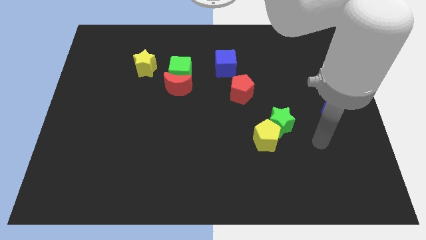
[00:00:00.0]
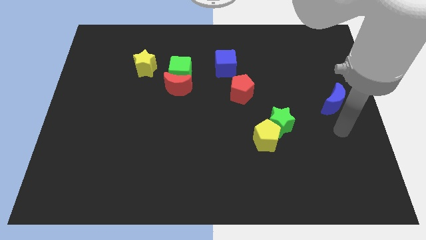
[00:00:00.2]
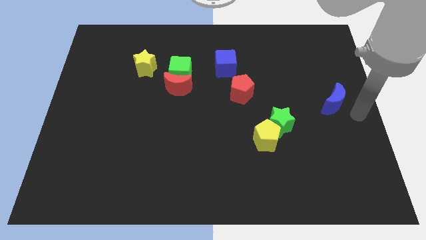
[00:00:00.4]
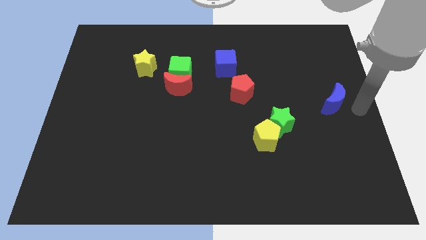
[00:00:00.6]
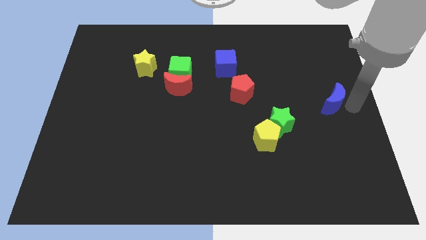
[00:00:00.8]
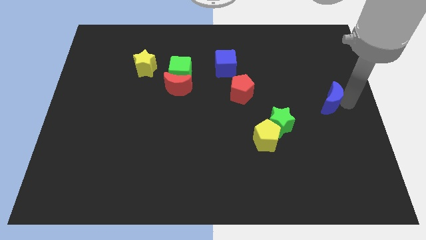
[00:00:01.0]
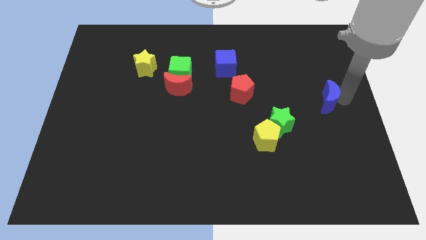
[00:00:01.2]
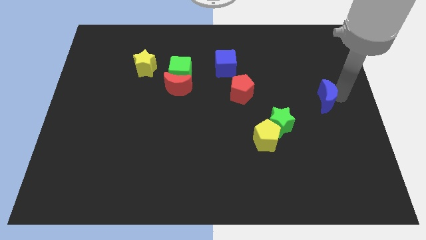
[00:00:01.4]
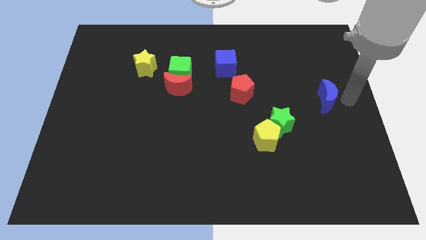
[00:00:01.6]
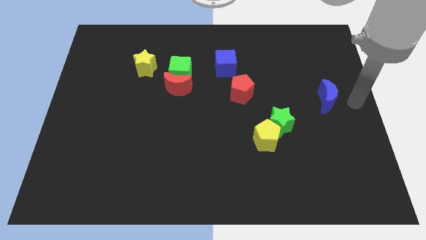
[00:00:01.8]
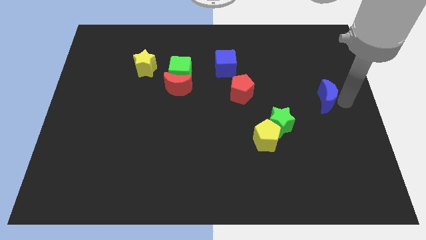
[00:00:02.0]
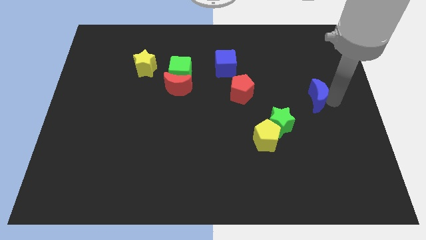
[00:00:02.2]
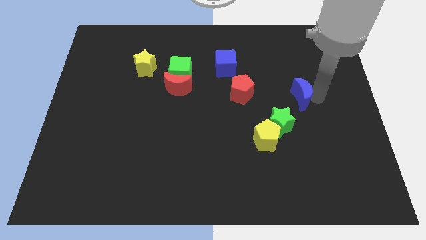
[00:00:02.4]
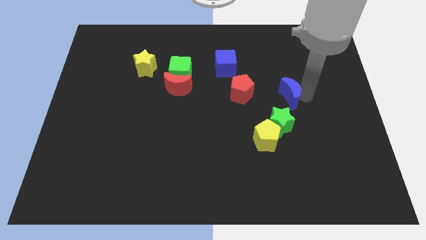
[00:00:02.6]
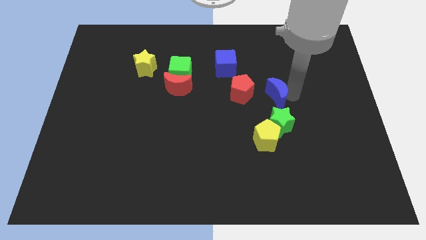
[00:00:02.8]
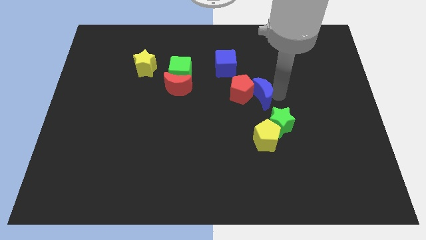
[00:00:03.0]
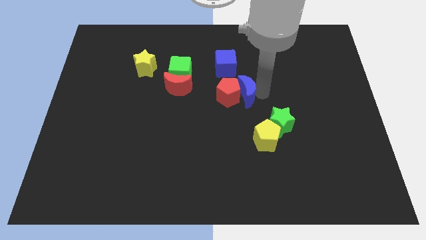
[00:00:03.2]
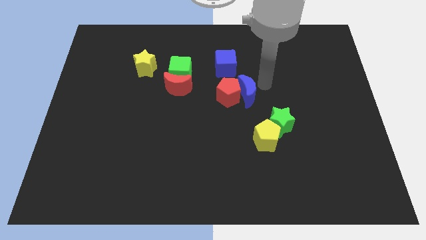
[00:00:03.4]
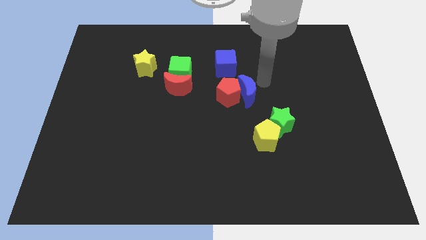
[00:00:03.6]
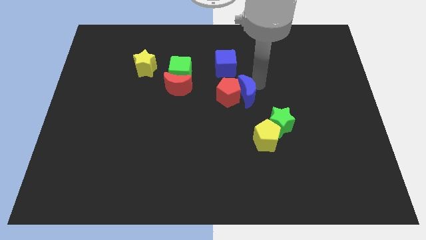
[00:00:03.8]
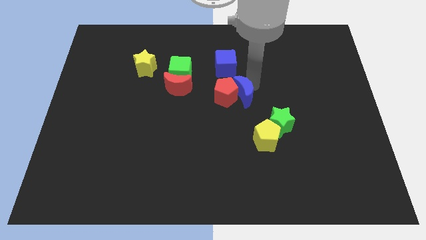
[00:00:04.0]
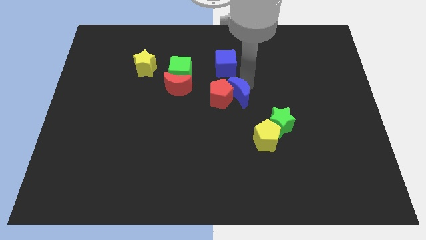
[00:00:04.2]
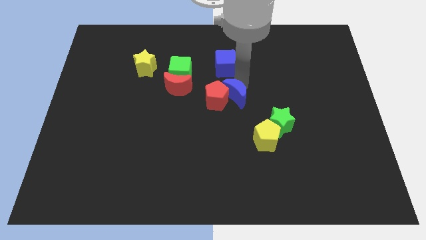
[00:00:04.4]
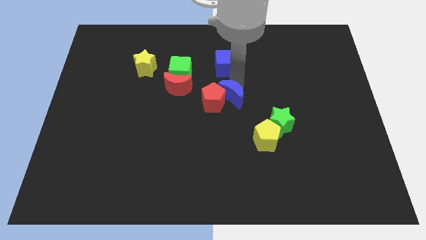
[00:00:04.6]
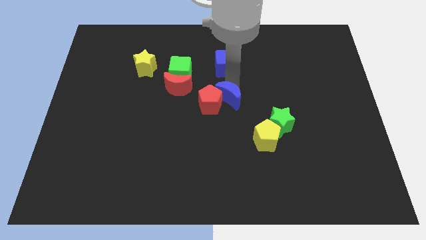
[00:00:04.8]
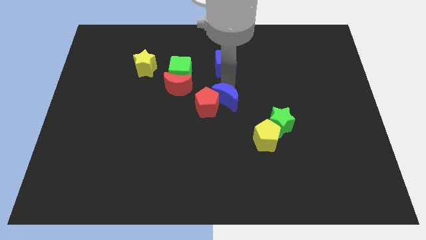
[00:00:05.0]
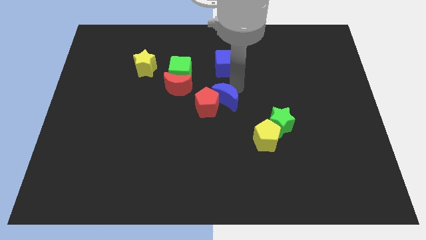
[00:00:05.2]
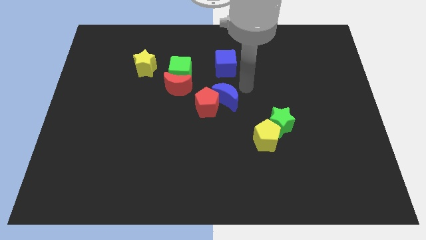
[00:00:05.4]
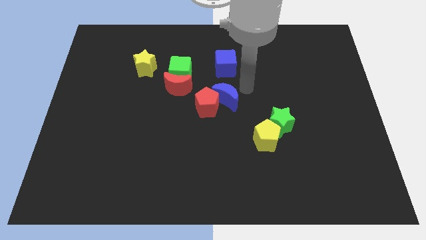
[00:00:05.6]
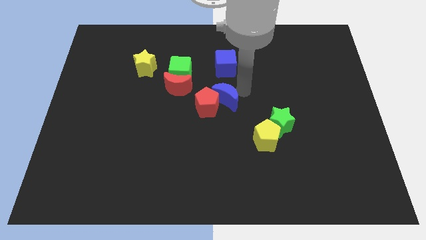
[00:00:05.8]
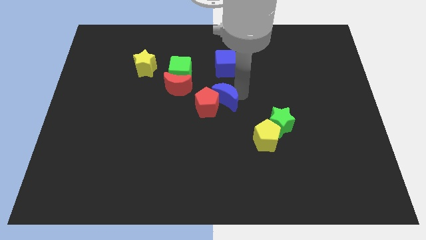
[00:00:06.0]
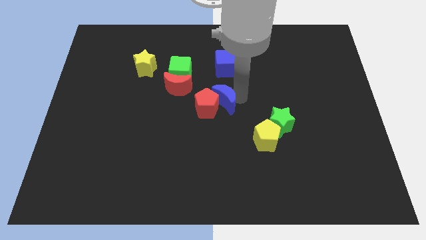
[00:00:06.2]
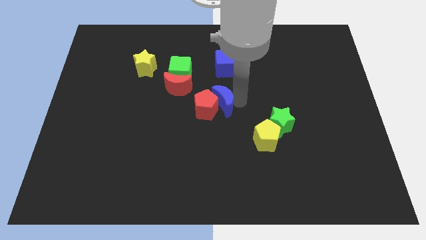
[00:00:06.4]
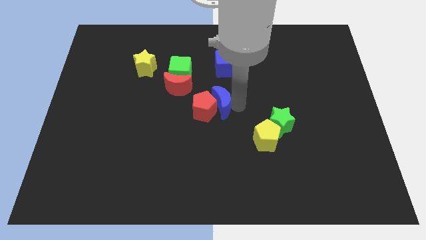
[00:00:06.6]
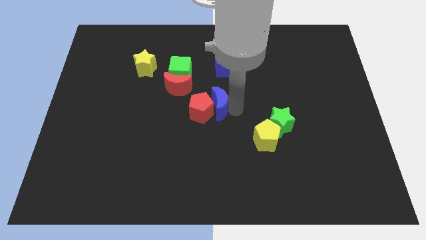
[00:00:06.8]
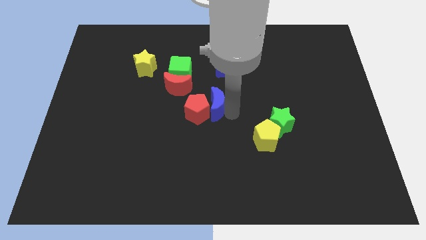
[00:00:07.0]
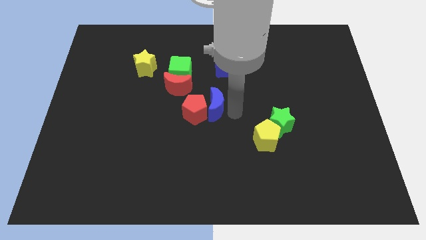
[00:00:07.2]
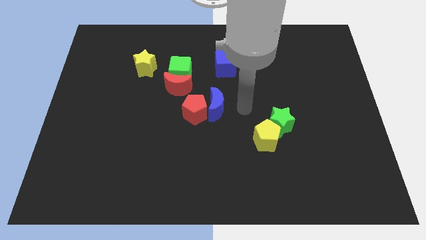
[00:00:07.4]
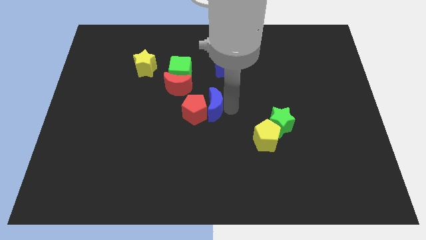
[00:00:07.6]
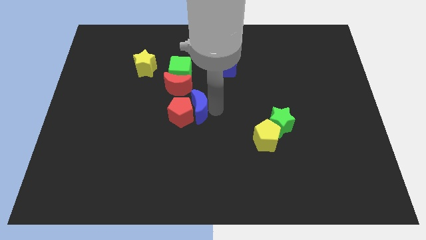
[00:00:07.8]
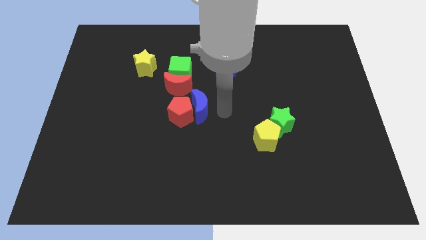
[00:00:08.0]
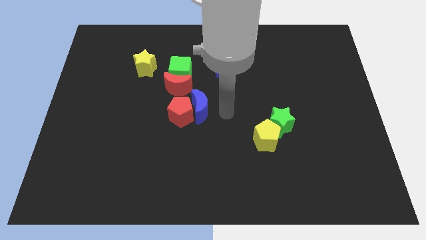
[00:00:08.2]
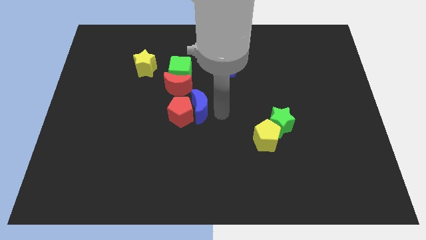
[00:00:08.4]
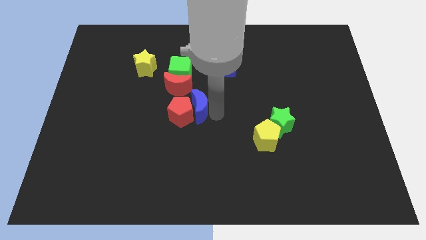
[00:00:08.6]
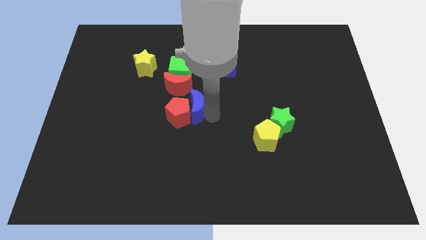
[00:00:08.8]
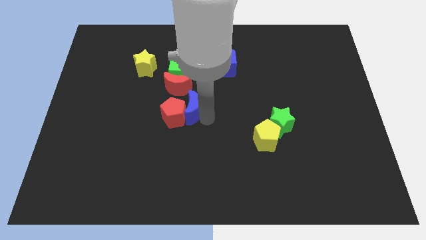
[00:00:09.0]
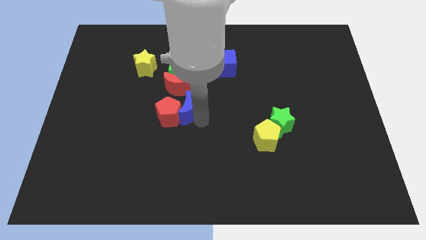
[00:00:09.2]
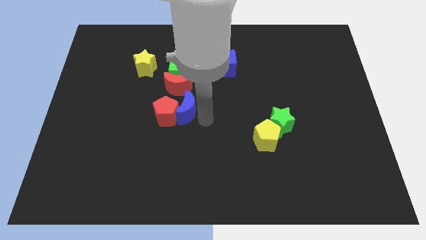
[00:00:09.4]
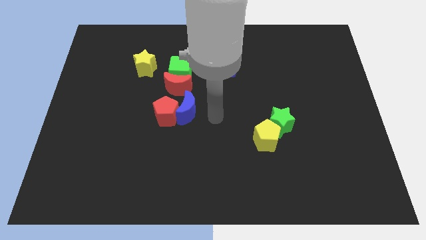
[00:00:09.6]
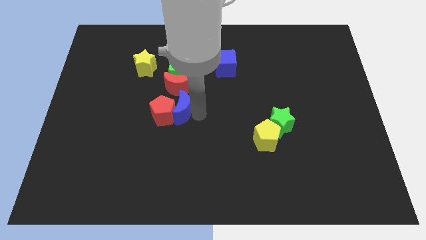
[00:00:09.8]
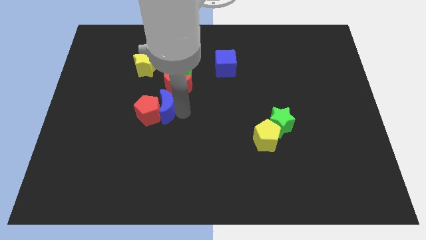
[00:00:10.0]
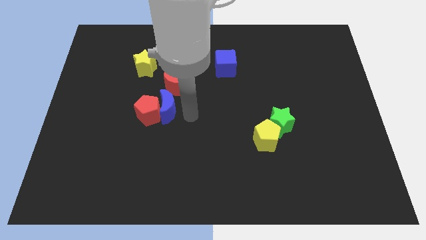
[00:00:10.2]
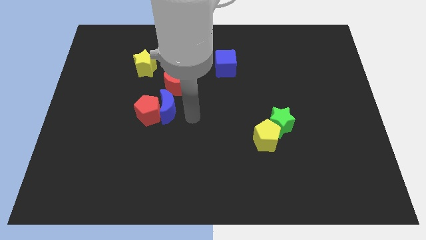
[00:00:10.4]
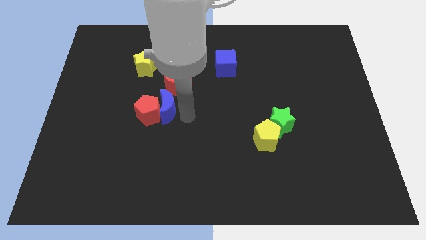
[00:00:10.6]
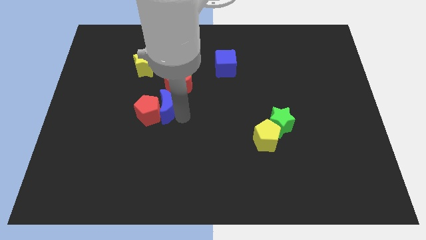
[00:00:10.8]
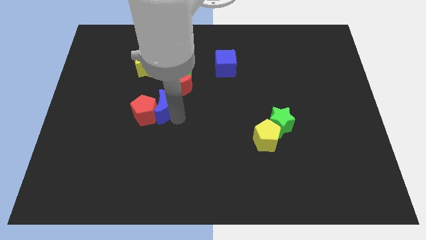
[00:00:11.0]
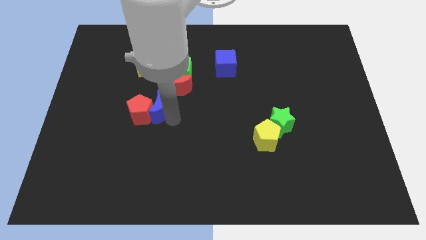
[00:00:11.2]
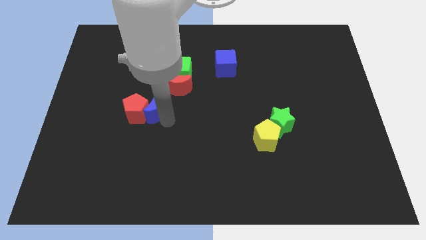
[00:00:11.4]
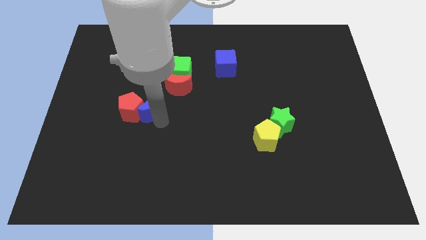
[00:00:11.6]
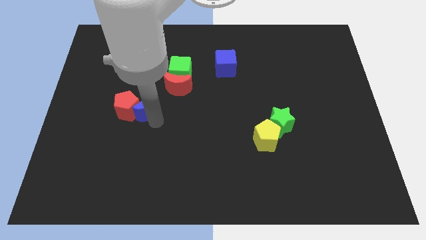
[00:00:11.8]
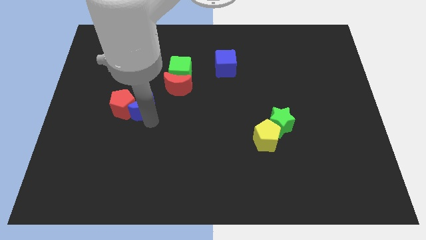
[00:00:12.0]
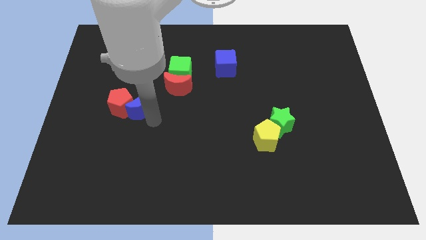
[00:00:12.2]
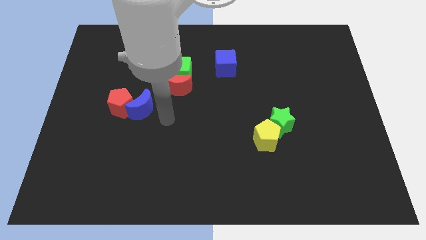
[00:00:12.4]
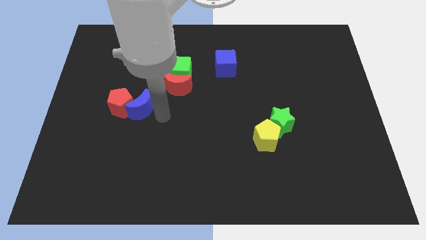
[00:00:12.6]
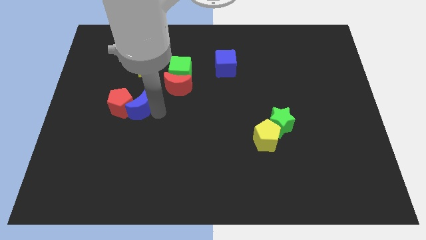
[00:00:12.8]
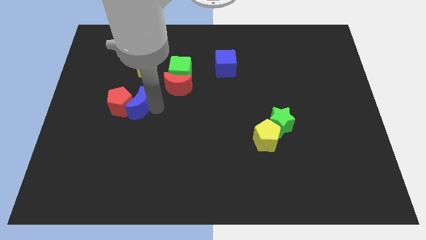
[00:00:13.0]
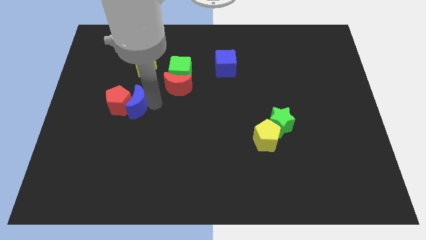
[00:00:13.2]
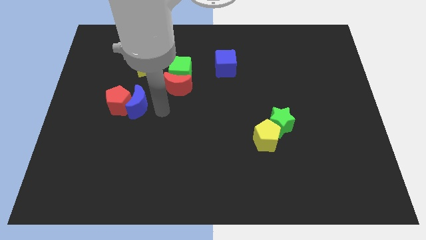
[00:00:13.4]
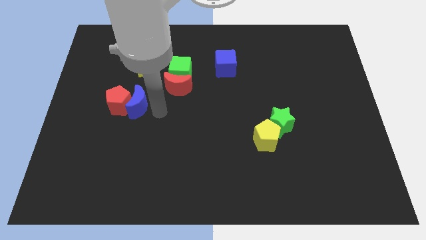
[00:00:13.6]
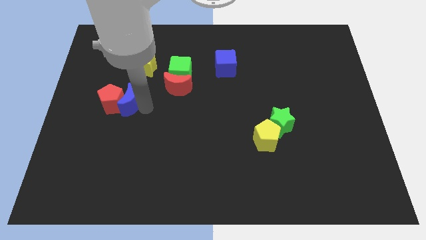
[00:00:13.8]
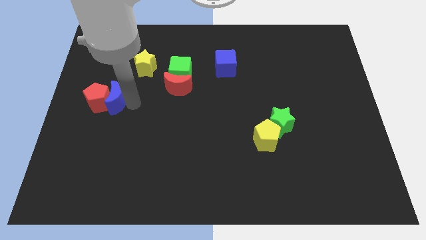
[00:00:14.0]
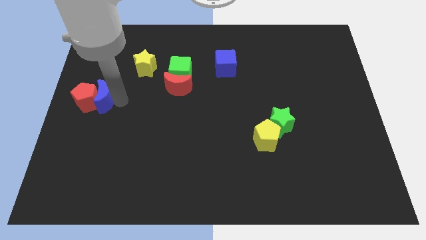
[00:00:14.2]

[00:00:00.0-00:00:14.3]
slide the blue moon to the left side of the board

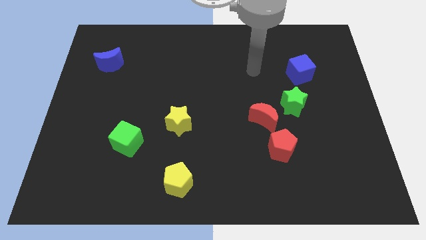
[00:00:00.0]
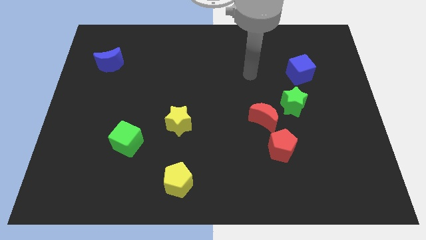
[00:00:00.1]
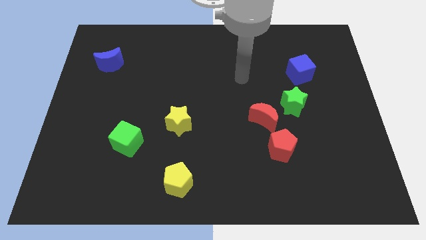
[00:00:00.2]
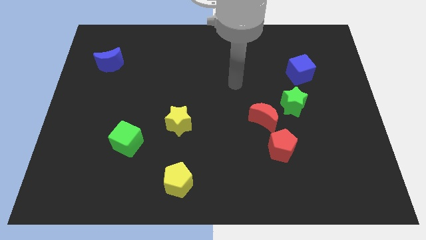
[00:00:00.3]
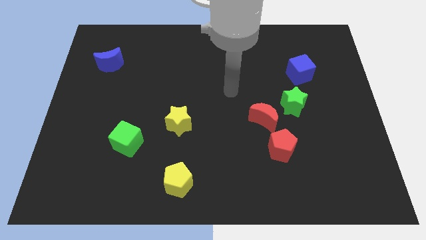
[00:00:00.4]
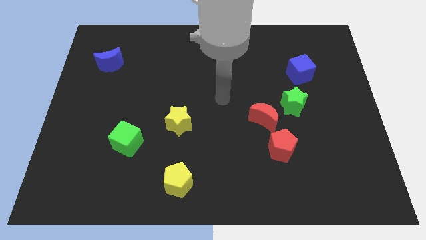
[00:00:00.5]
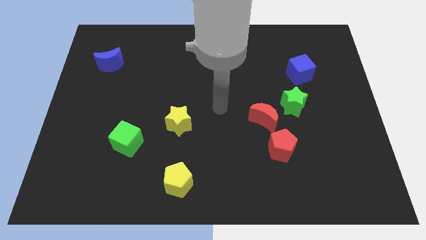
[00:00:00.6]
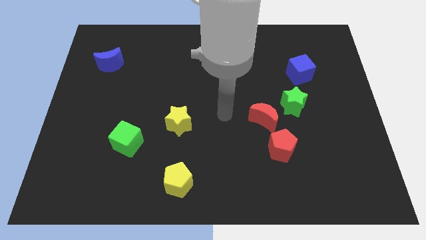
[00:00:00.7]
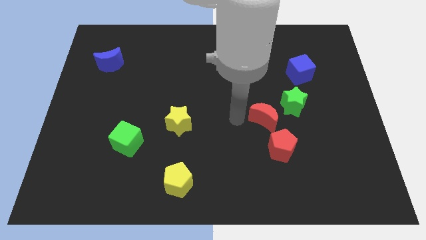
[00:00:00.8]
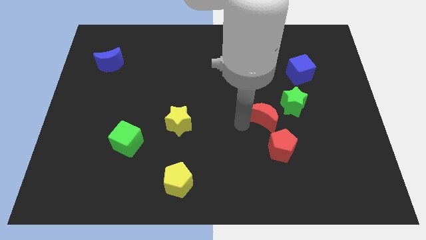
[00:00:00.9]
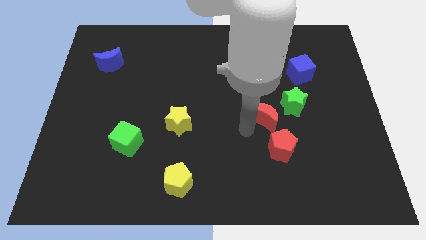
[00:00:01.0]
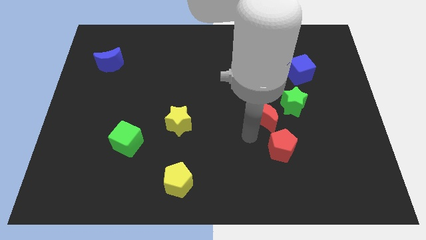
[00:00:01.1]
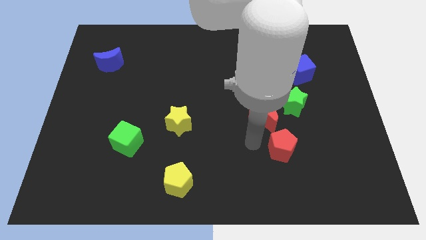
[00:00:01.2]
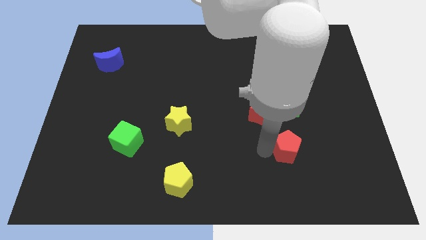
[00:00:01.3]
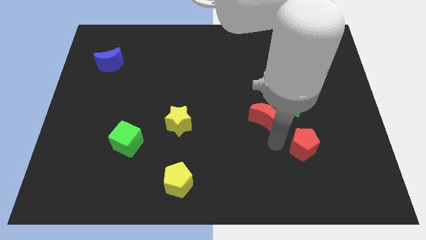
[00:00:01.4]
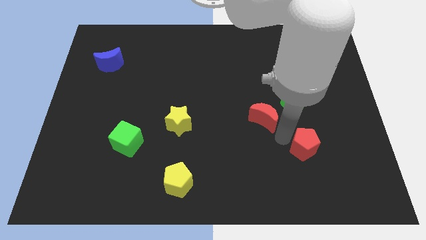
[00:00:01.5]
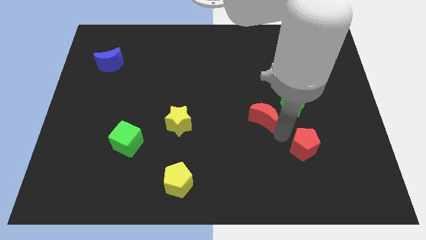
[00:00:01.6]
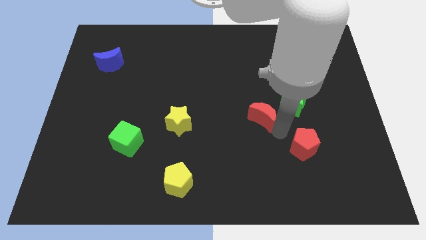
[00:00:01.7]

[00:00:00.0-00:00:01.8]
slide the red moon to the middle of the board
